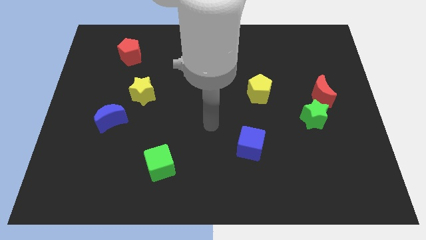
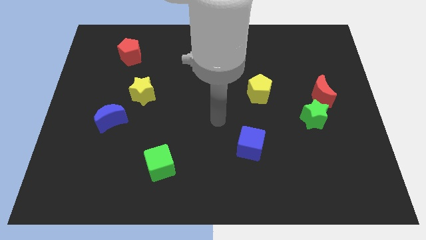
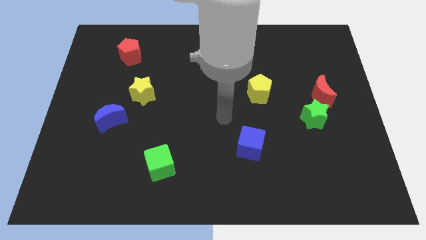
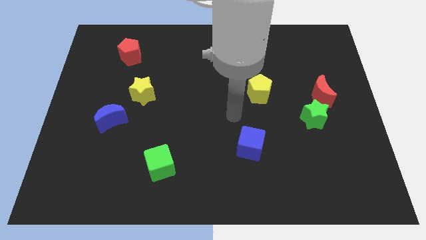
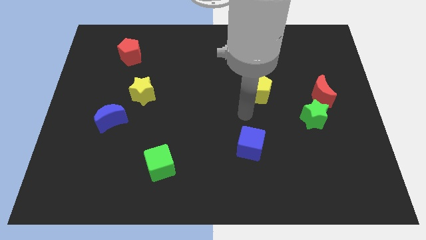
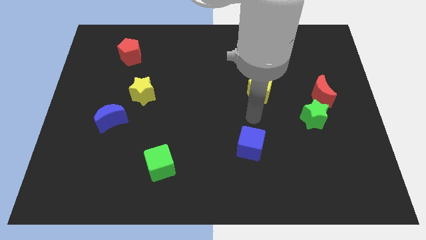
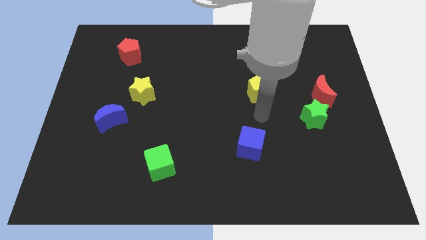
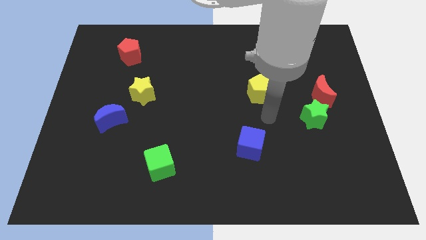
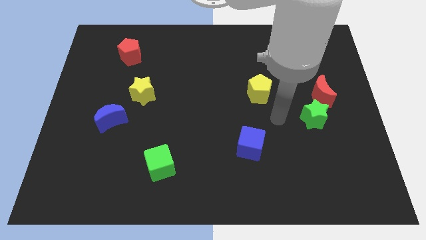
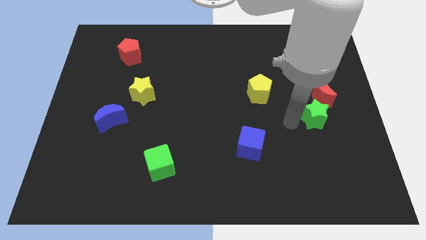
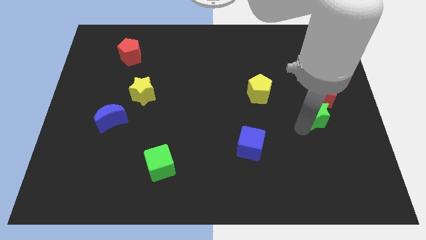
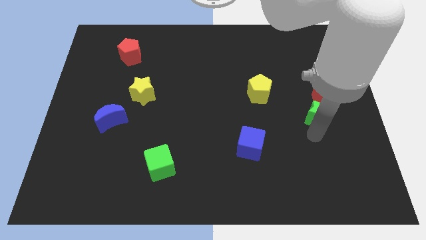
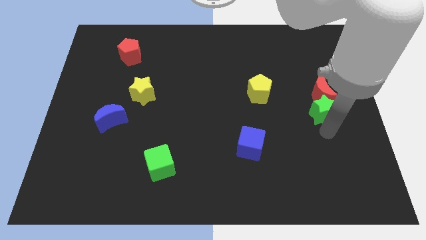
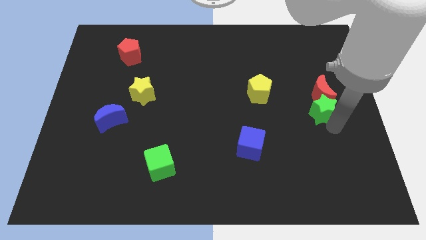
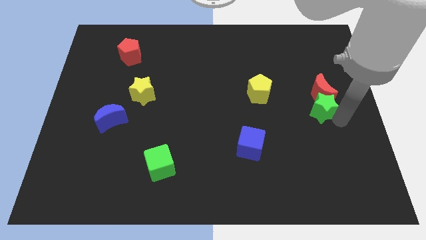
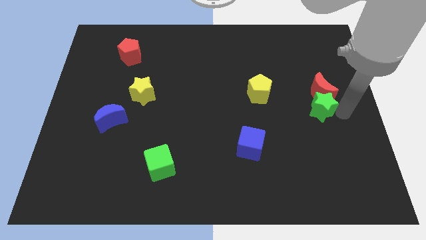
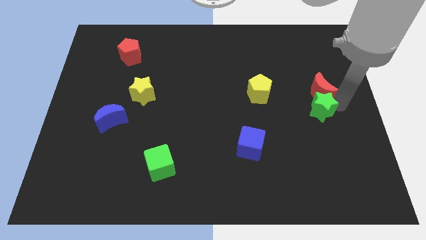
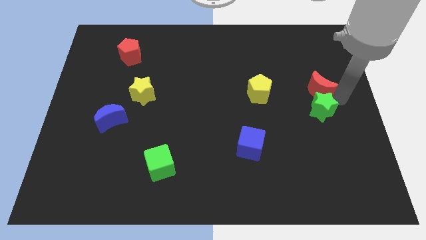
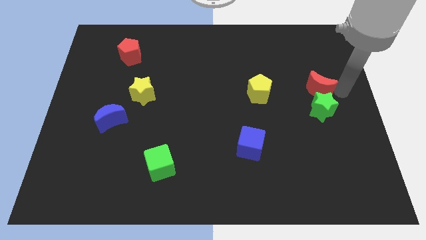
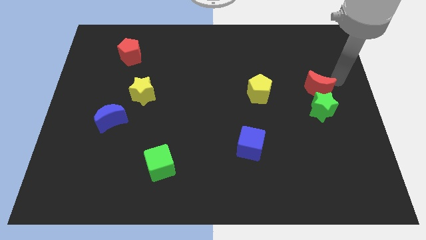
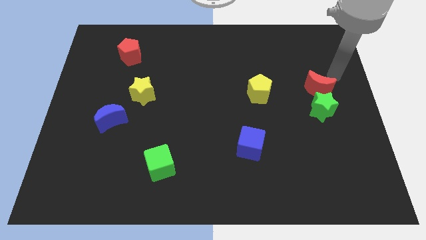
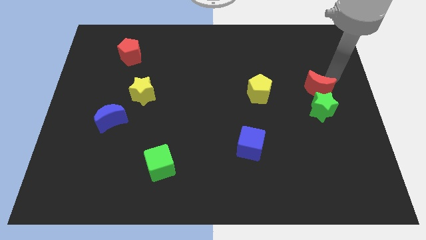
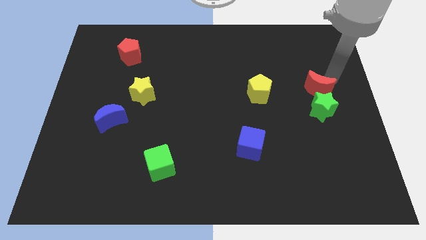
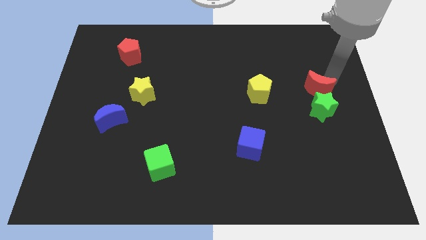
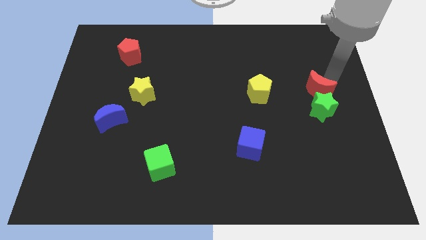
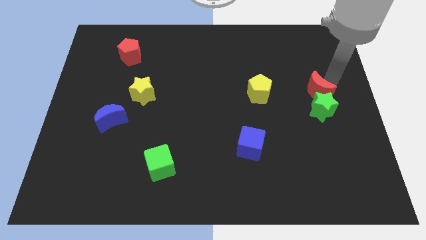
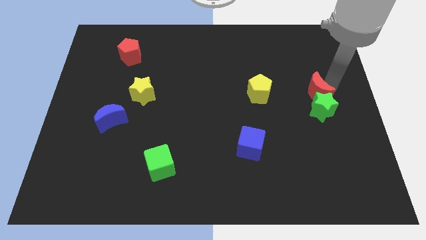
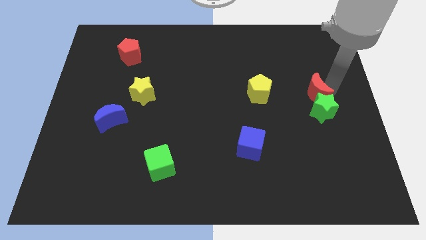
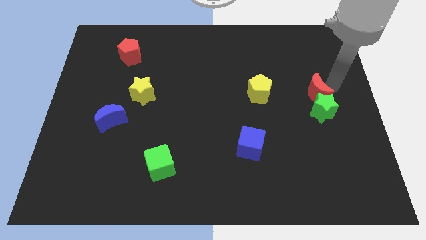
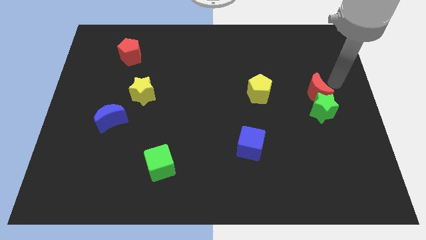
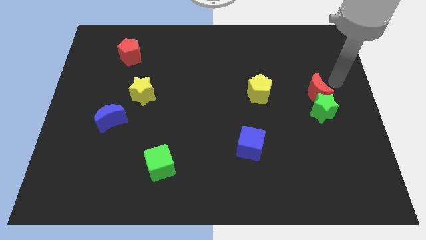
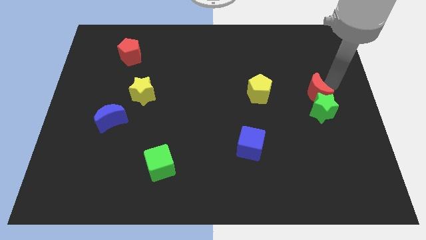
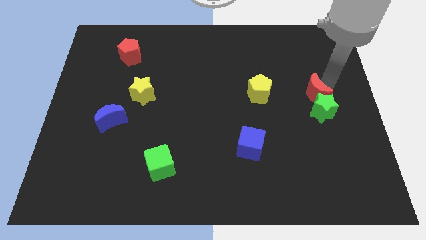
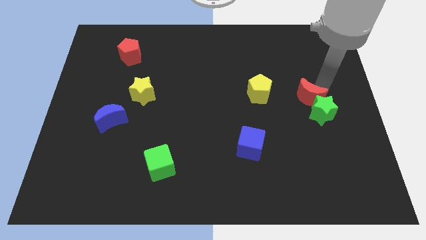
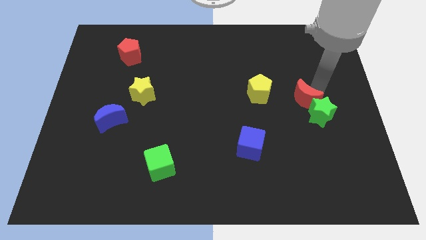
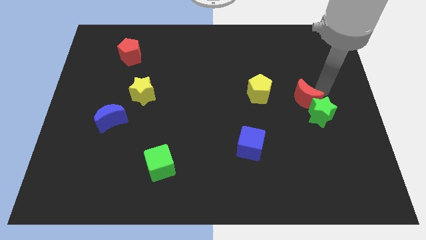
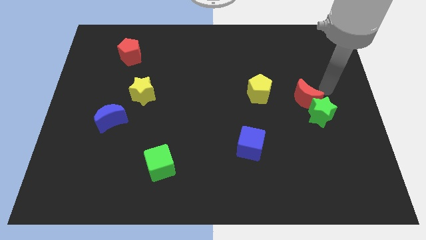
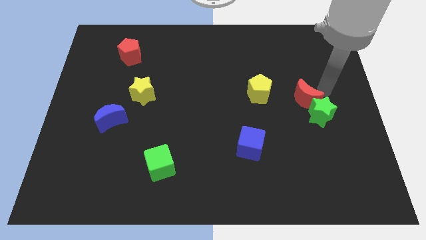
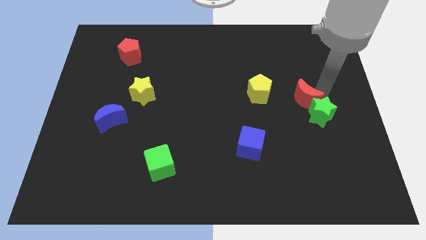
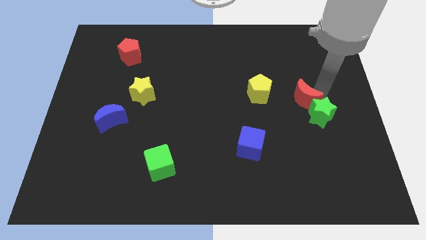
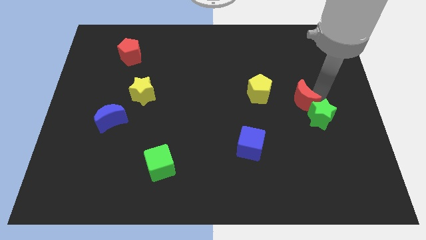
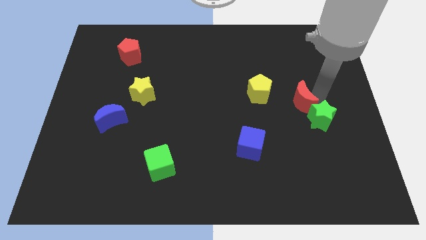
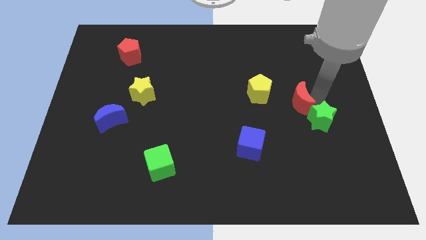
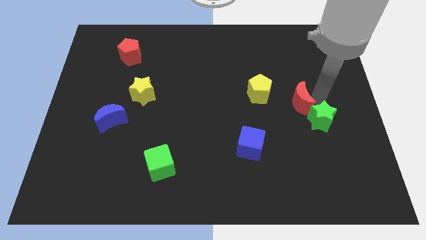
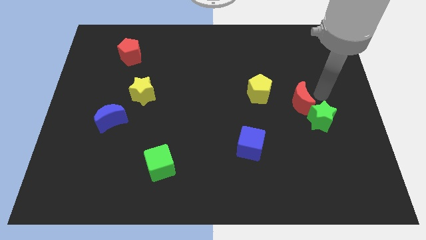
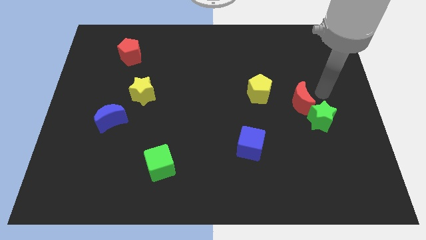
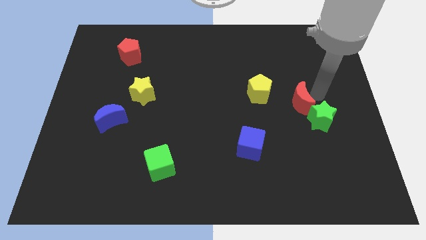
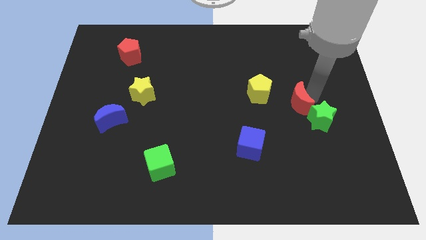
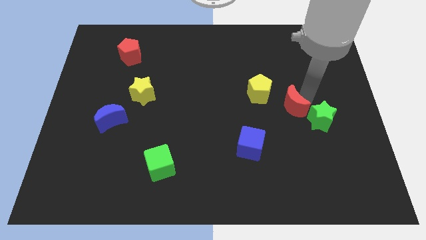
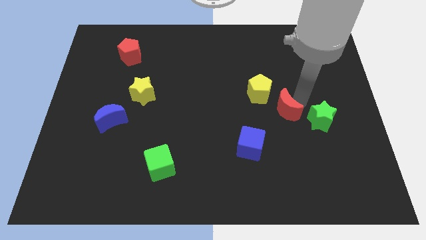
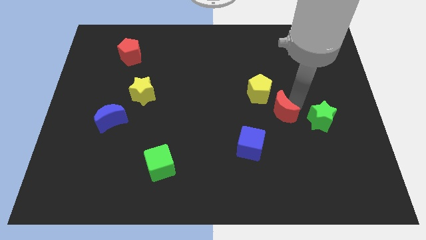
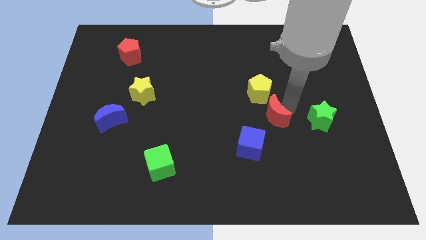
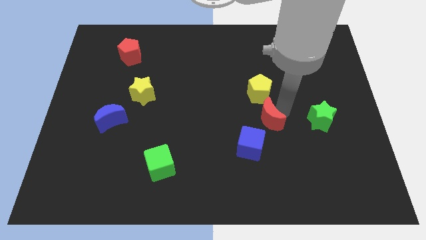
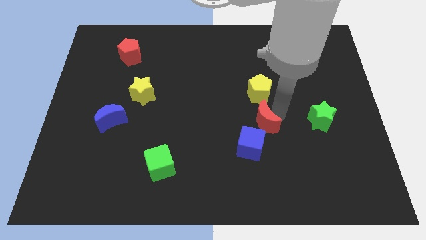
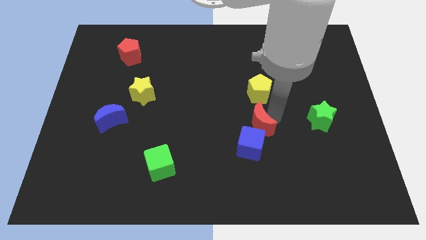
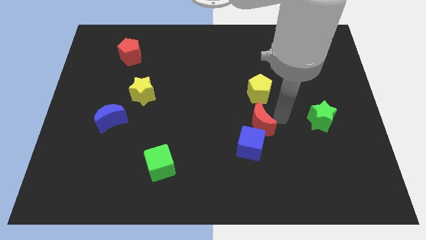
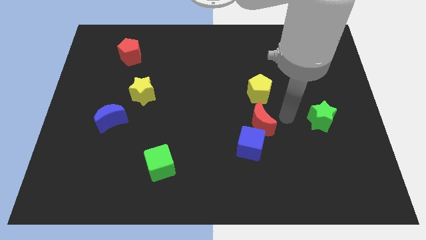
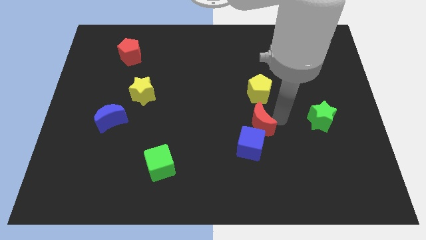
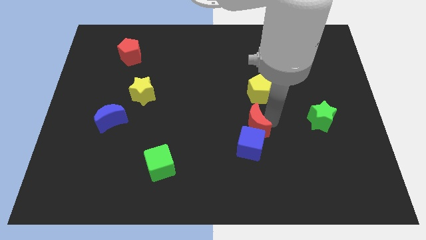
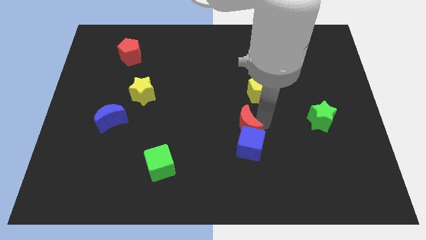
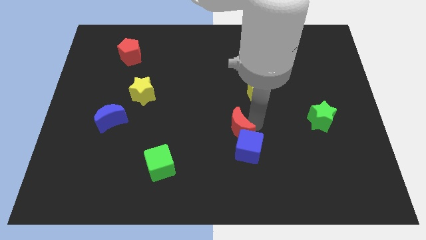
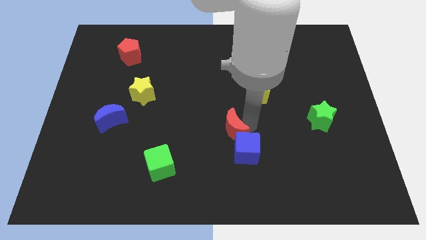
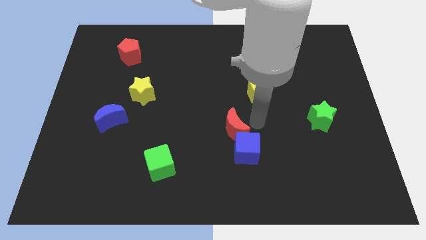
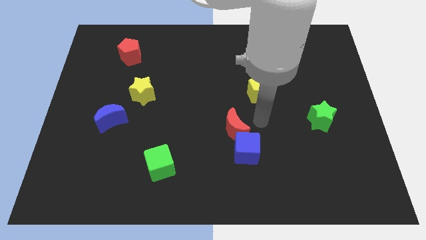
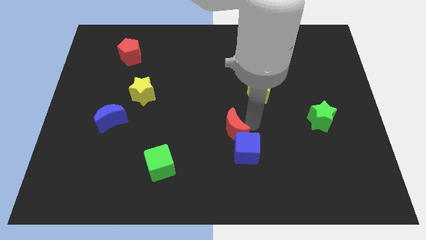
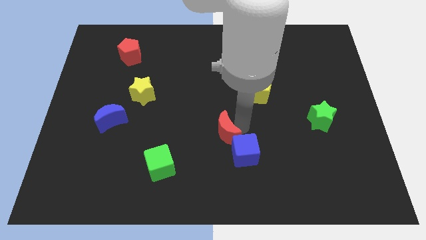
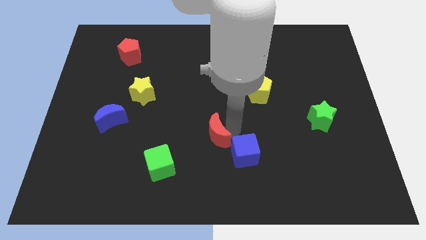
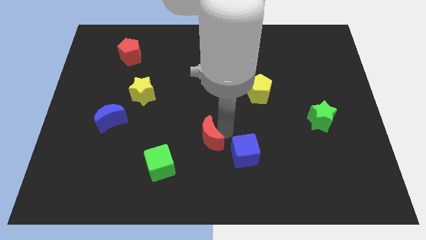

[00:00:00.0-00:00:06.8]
push the red moon diagonally up and to the right of the green cube

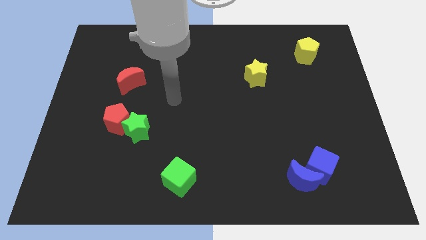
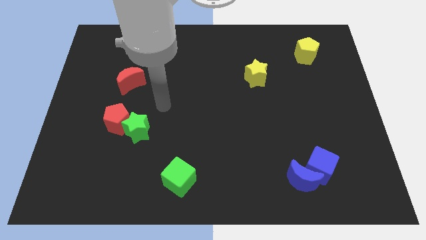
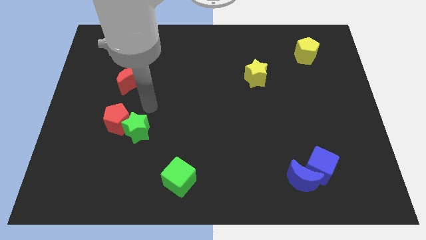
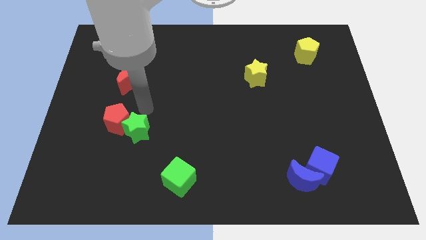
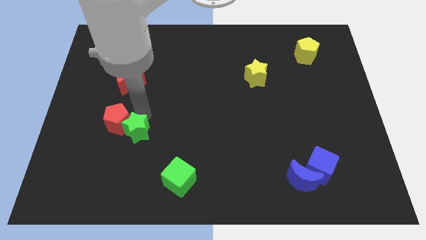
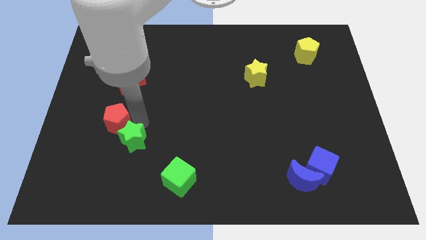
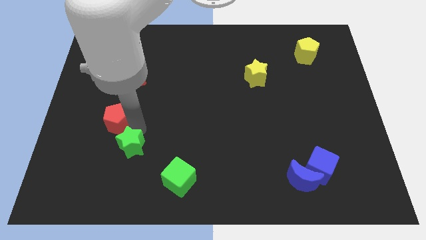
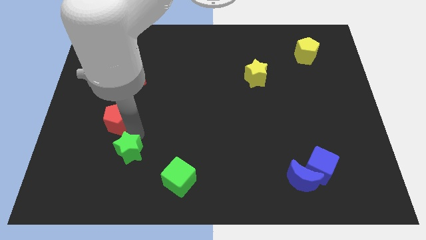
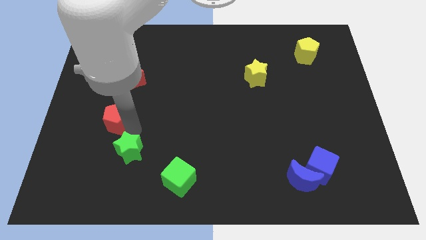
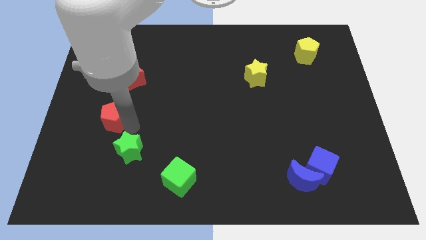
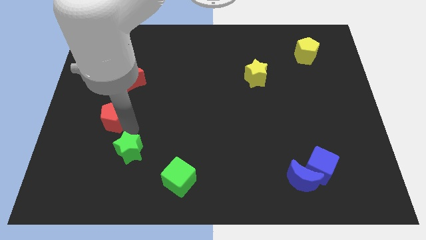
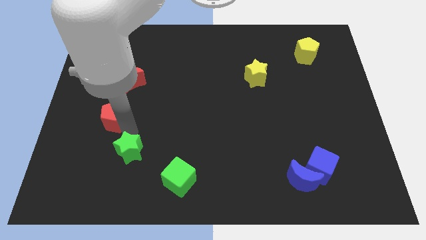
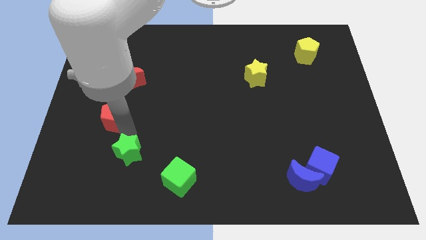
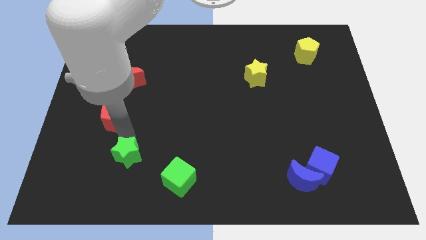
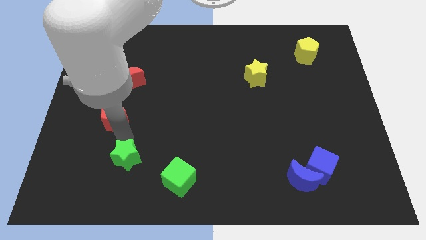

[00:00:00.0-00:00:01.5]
move the green star to the left side of the green cube
